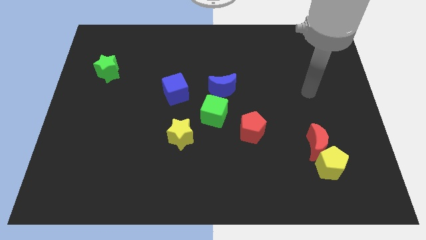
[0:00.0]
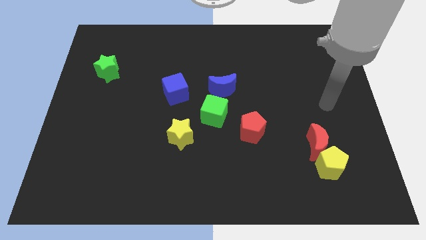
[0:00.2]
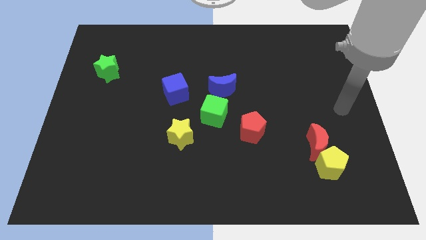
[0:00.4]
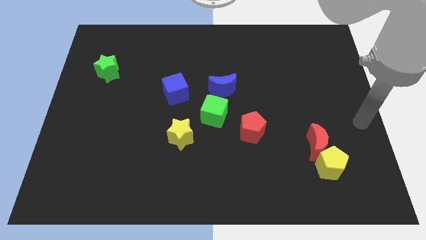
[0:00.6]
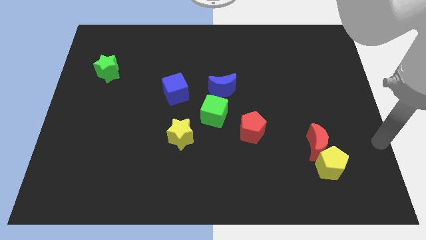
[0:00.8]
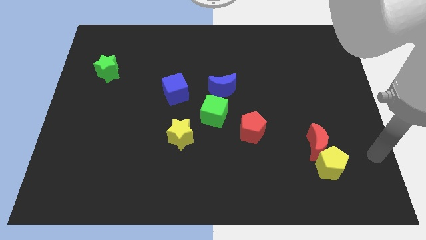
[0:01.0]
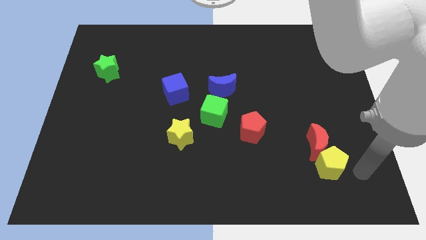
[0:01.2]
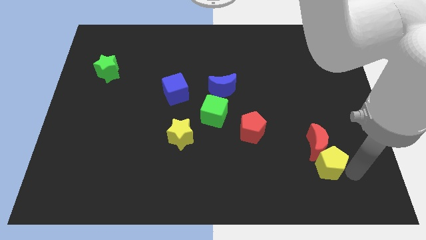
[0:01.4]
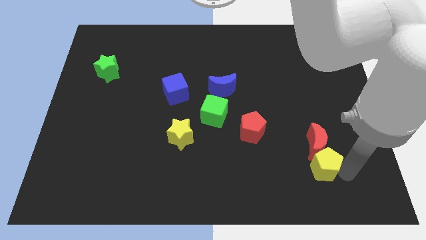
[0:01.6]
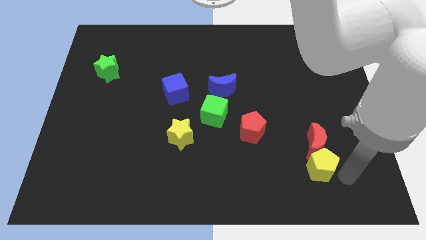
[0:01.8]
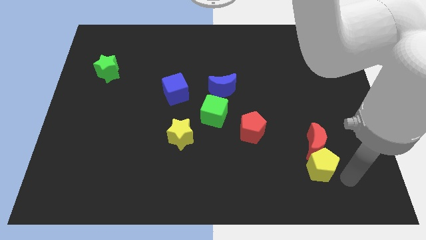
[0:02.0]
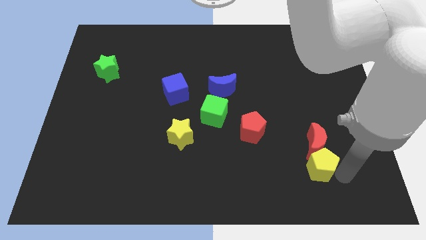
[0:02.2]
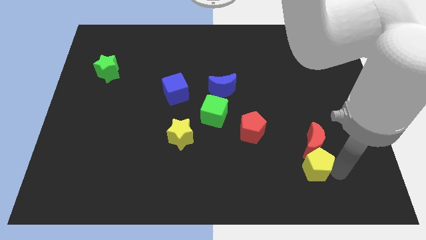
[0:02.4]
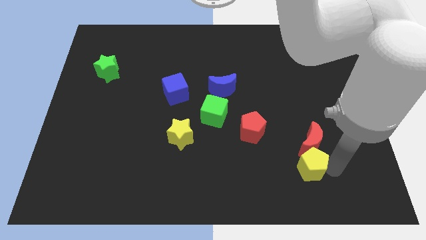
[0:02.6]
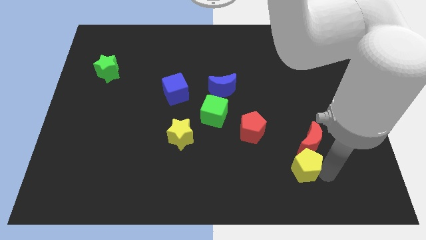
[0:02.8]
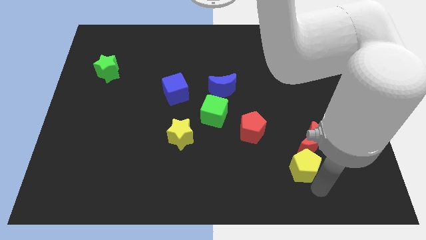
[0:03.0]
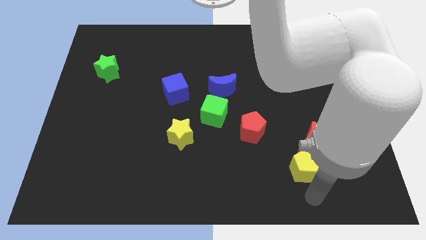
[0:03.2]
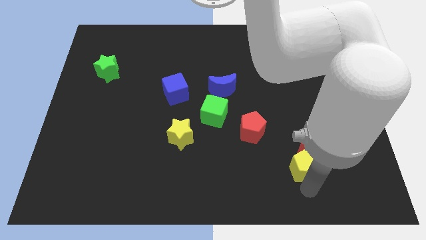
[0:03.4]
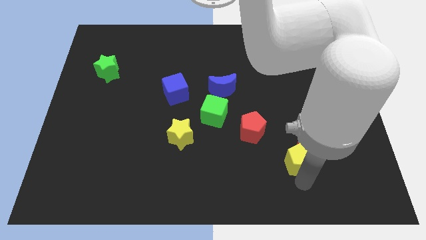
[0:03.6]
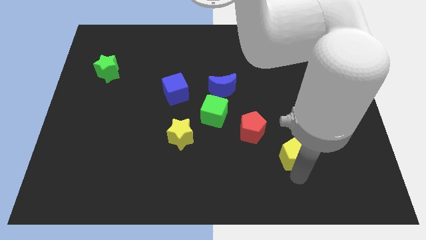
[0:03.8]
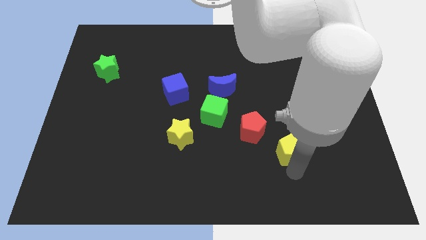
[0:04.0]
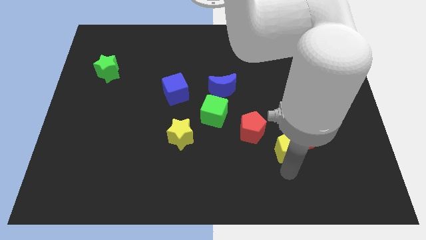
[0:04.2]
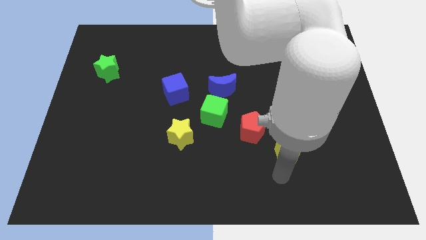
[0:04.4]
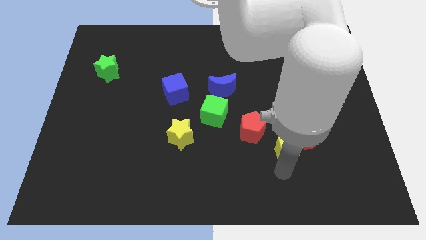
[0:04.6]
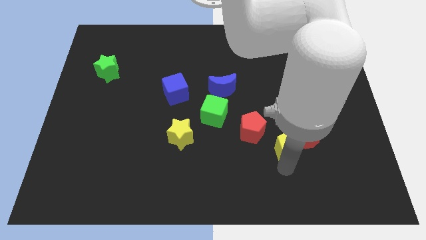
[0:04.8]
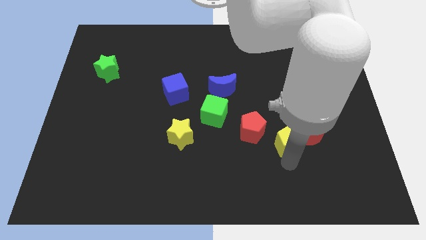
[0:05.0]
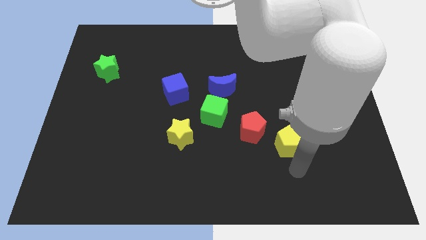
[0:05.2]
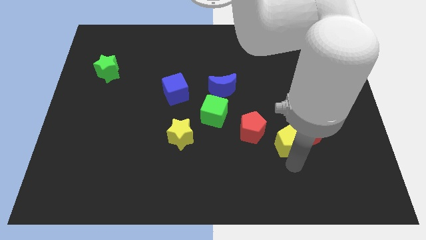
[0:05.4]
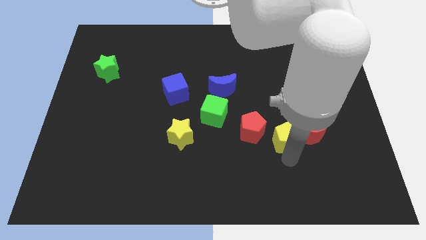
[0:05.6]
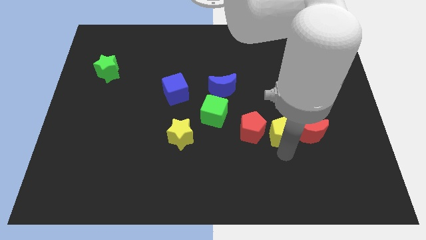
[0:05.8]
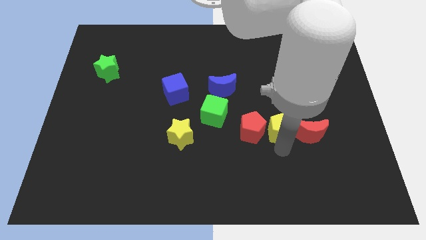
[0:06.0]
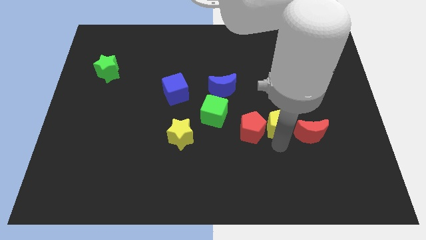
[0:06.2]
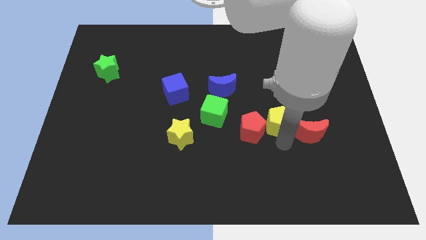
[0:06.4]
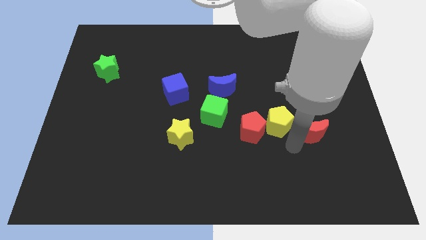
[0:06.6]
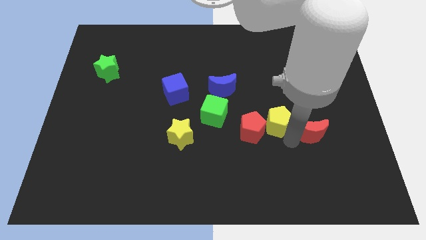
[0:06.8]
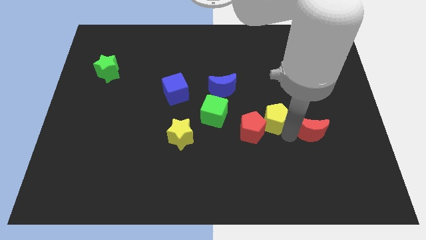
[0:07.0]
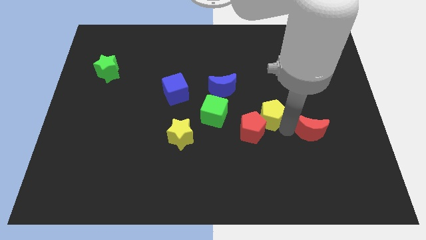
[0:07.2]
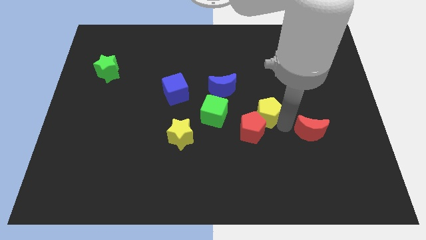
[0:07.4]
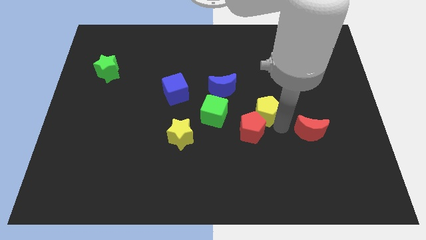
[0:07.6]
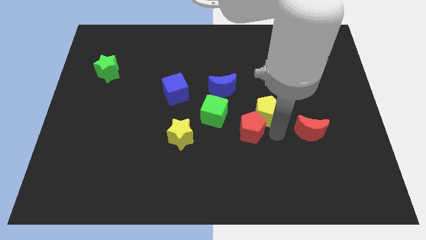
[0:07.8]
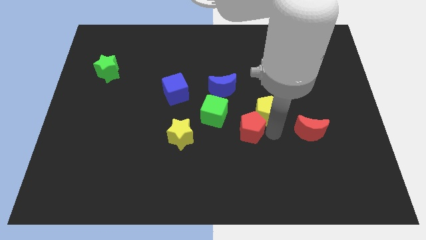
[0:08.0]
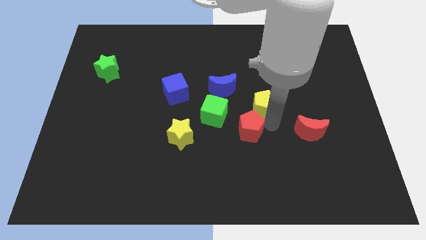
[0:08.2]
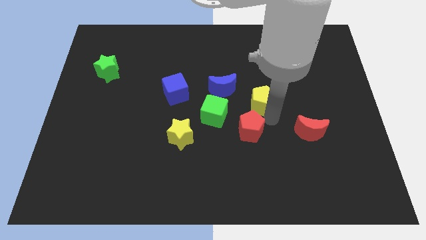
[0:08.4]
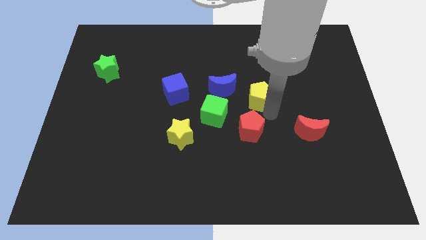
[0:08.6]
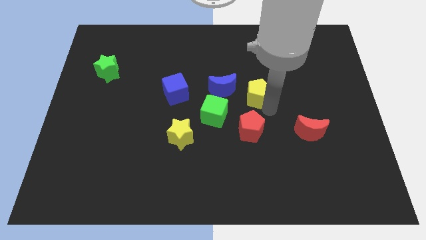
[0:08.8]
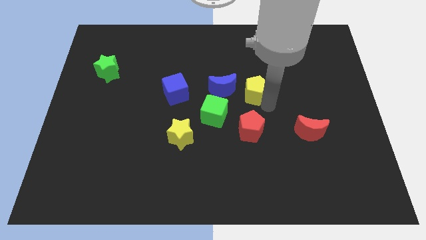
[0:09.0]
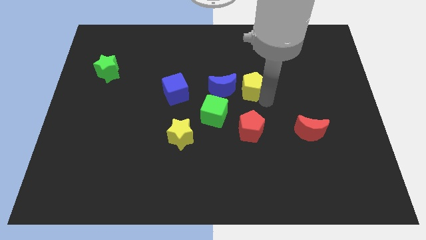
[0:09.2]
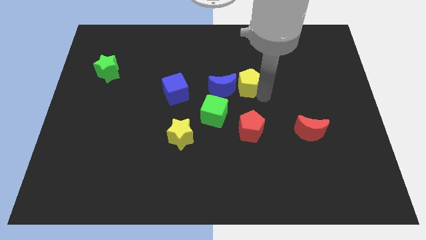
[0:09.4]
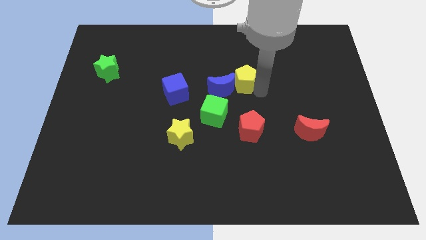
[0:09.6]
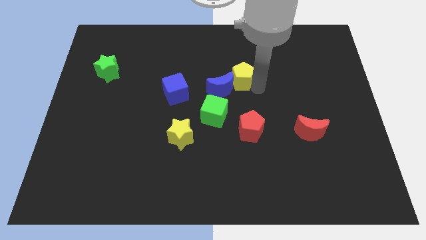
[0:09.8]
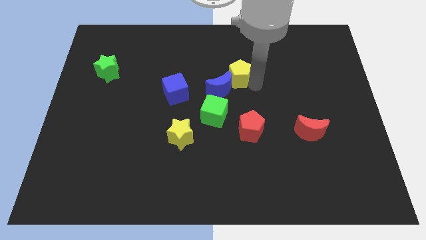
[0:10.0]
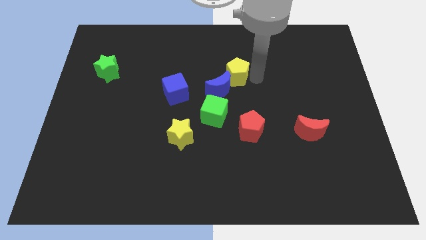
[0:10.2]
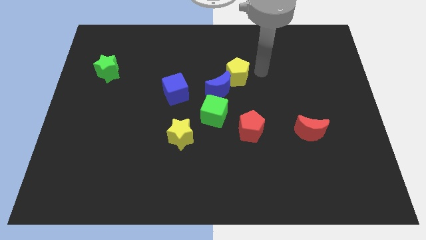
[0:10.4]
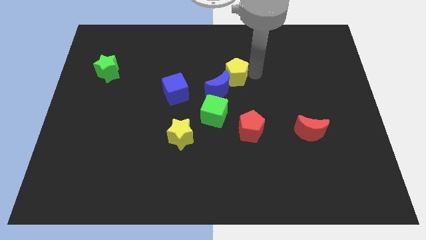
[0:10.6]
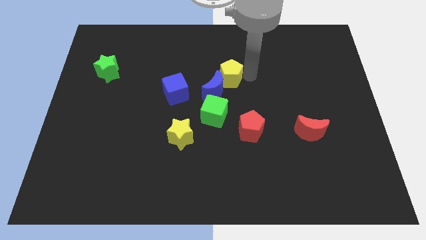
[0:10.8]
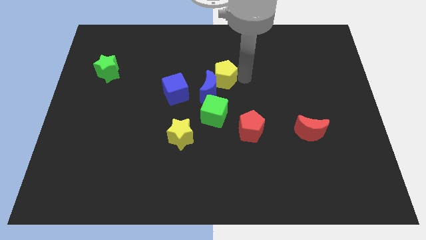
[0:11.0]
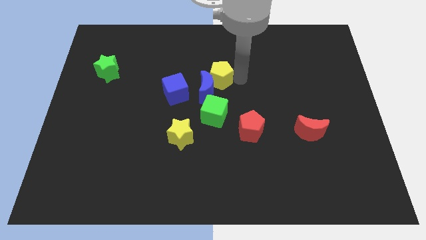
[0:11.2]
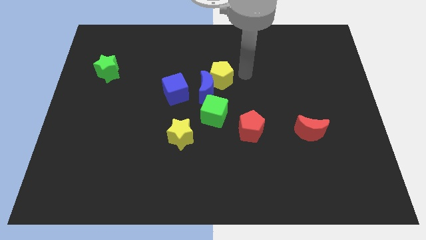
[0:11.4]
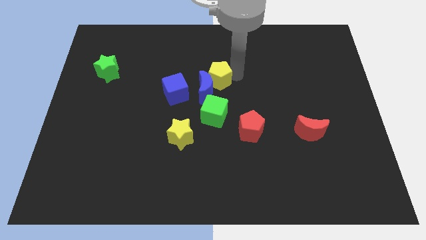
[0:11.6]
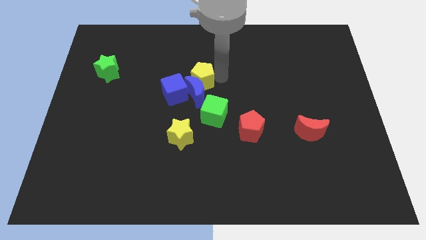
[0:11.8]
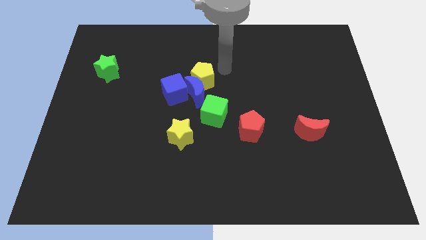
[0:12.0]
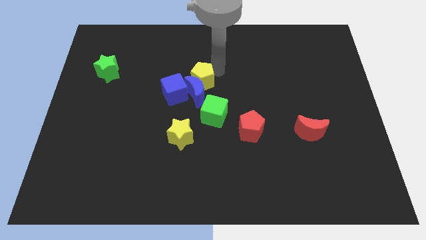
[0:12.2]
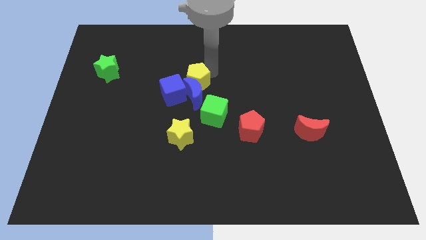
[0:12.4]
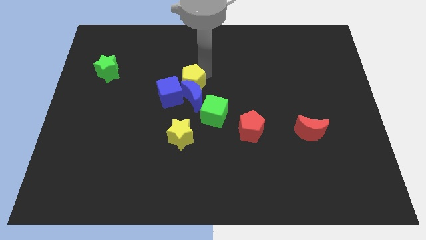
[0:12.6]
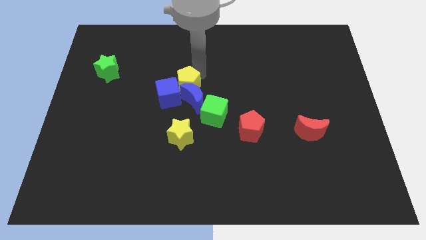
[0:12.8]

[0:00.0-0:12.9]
push the yellow pentagon next to the blue cube
